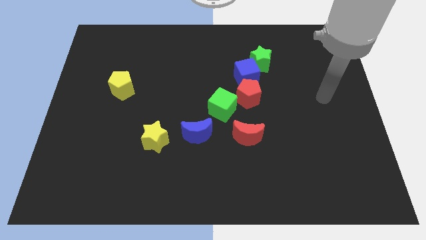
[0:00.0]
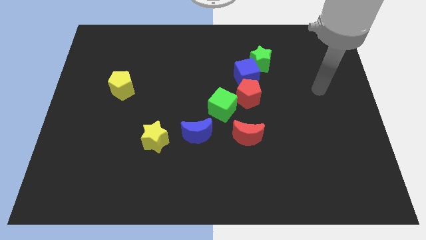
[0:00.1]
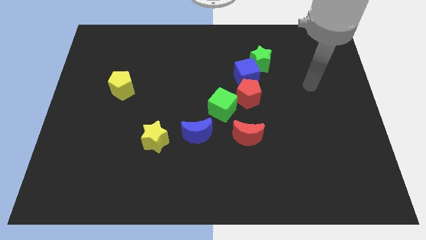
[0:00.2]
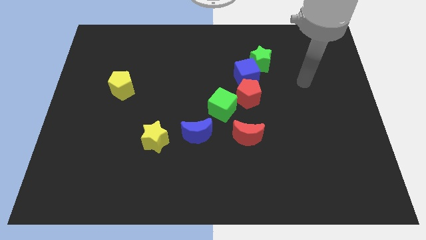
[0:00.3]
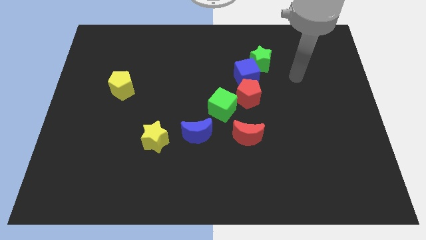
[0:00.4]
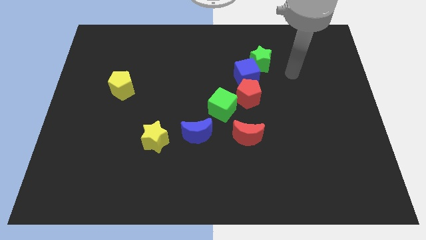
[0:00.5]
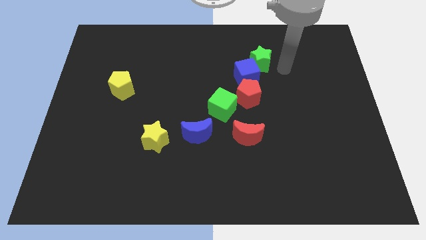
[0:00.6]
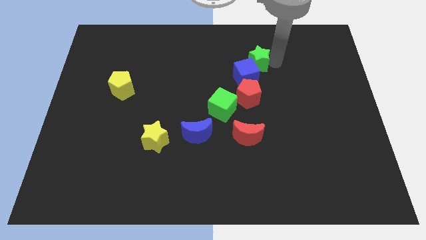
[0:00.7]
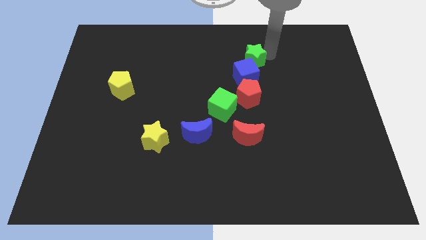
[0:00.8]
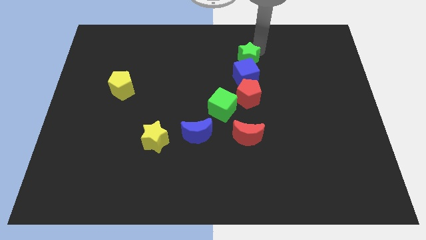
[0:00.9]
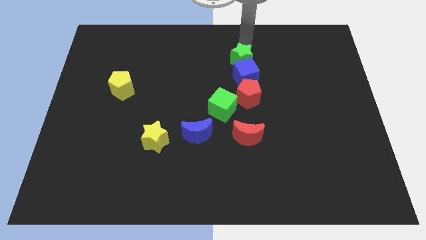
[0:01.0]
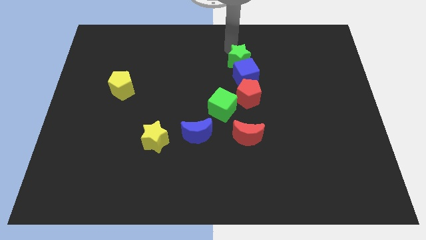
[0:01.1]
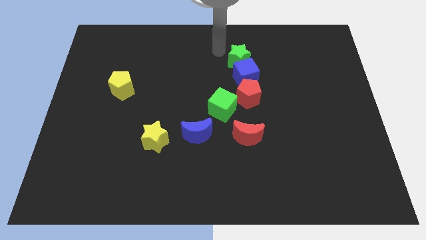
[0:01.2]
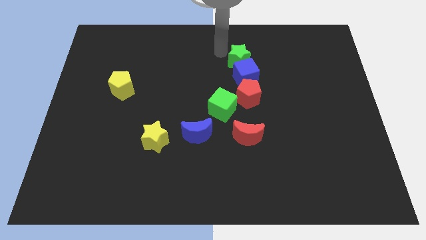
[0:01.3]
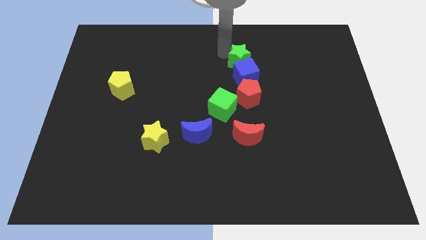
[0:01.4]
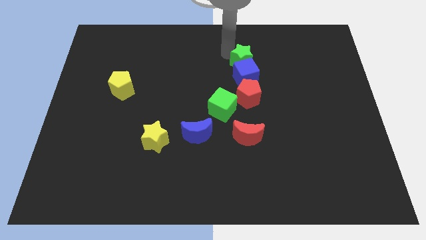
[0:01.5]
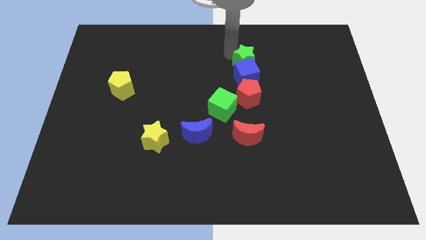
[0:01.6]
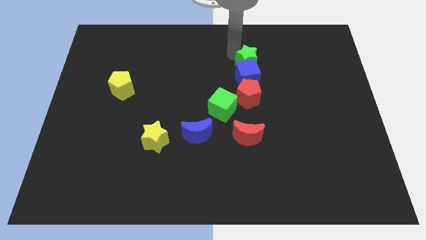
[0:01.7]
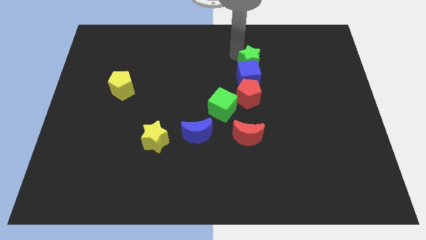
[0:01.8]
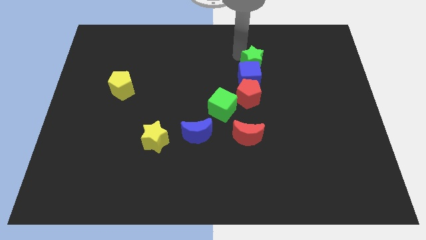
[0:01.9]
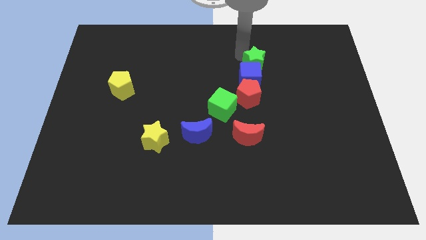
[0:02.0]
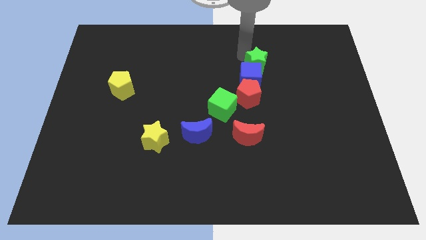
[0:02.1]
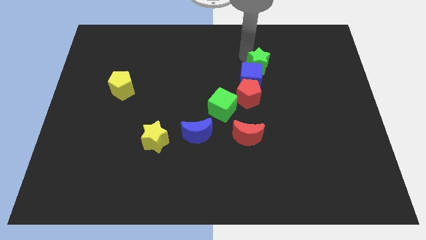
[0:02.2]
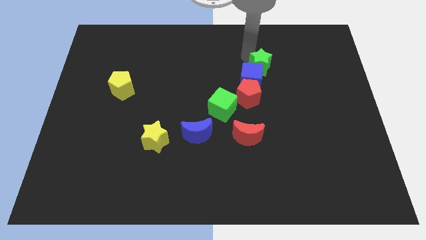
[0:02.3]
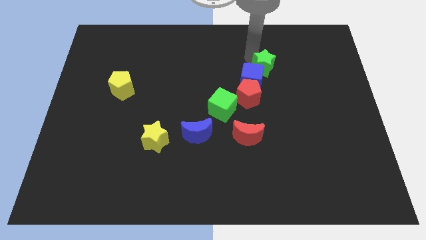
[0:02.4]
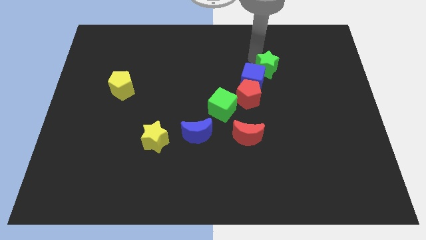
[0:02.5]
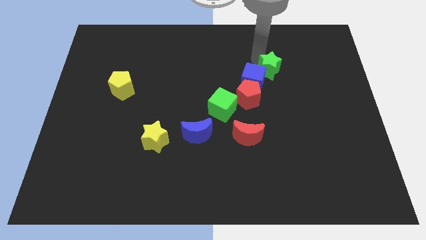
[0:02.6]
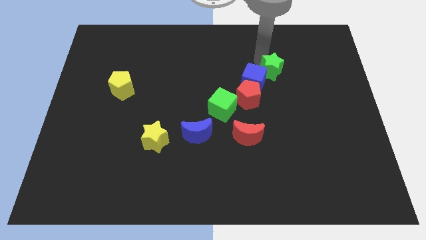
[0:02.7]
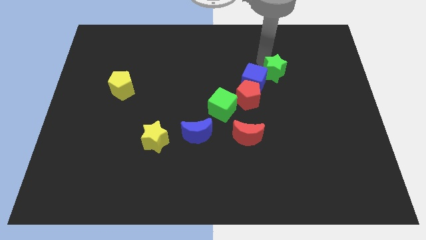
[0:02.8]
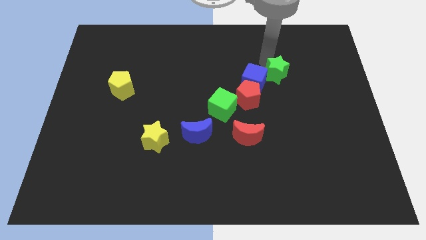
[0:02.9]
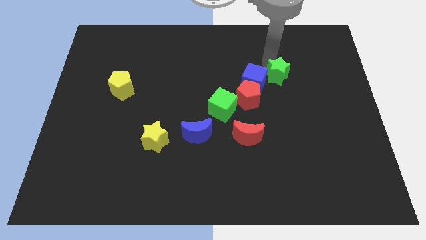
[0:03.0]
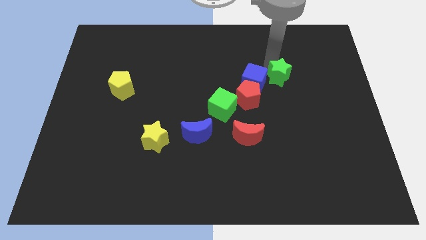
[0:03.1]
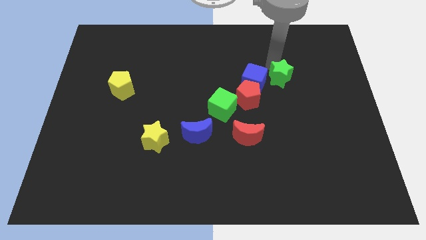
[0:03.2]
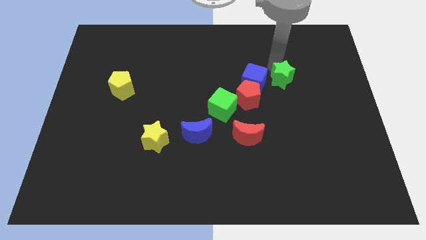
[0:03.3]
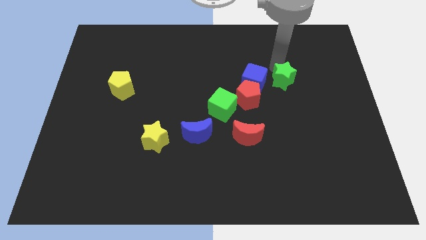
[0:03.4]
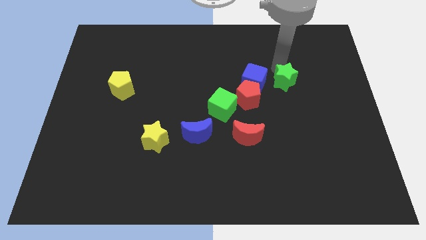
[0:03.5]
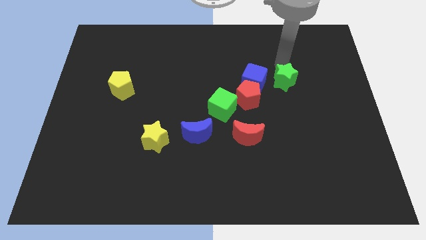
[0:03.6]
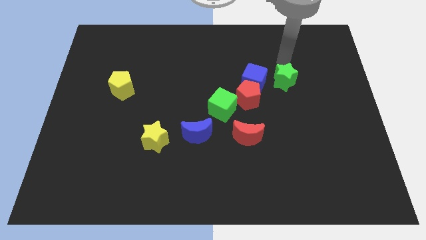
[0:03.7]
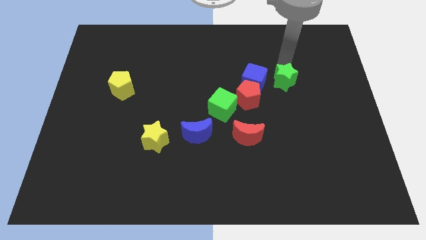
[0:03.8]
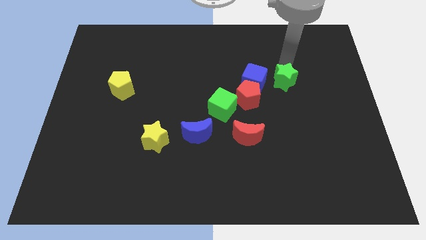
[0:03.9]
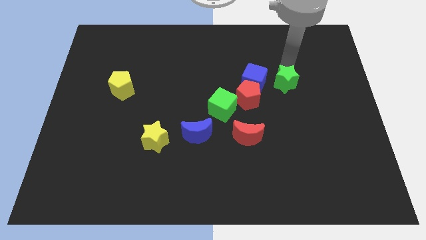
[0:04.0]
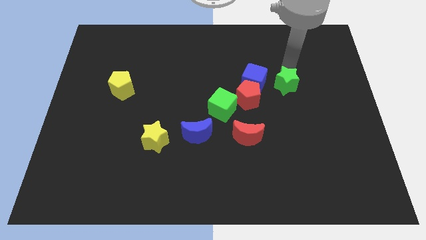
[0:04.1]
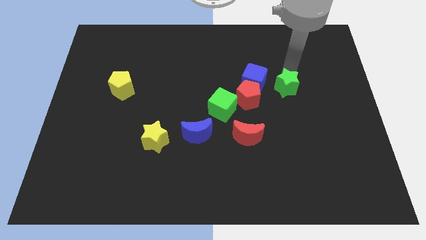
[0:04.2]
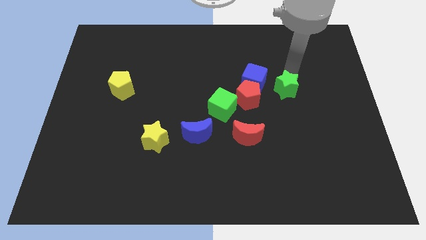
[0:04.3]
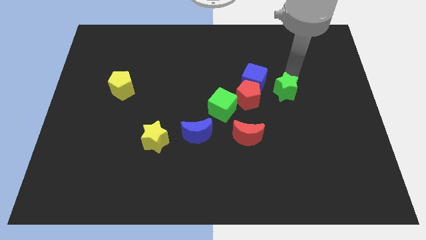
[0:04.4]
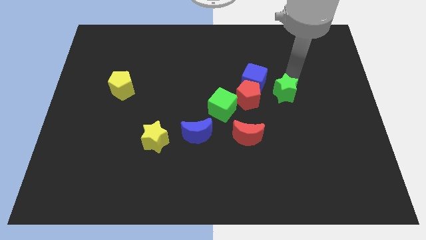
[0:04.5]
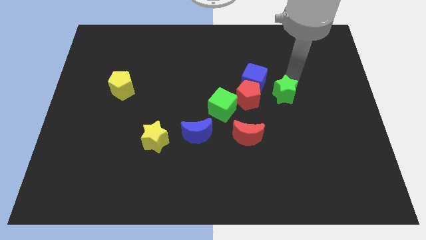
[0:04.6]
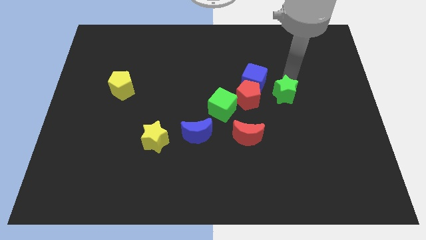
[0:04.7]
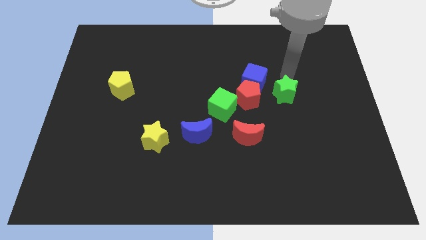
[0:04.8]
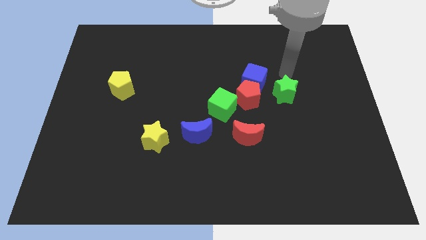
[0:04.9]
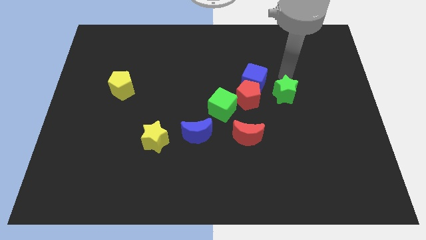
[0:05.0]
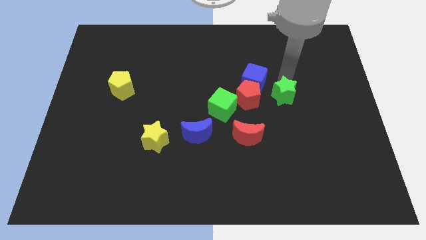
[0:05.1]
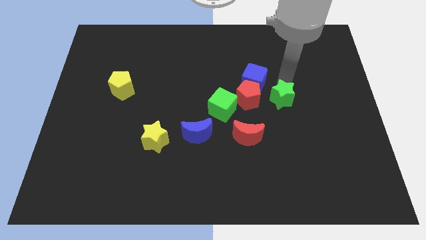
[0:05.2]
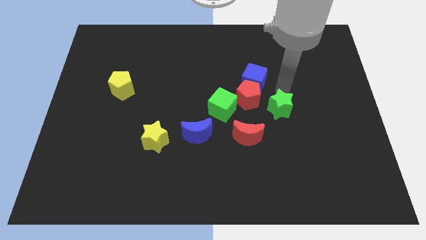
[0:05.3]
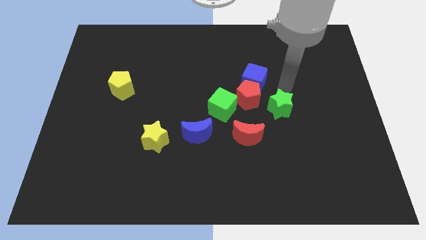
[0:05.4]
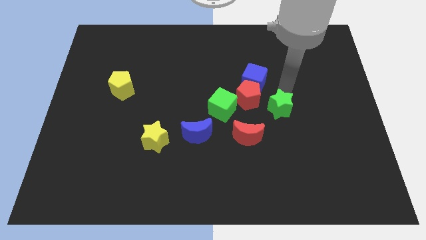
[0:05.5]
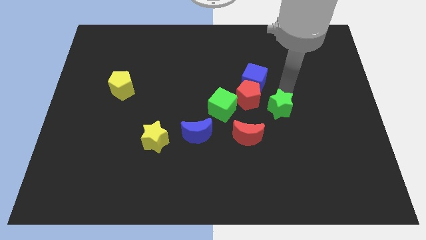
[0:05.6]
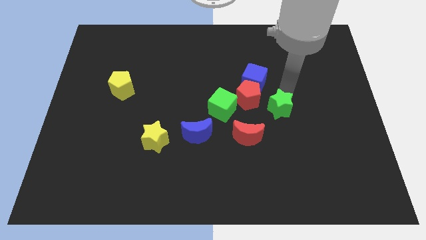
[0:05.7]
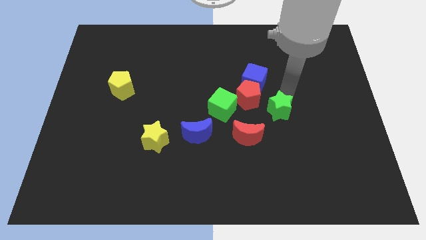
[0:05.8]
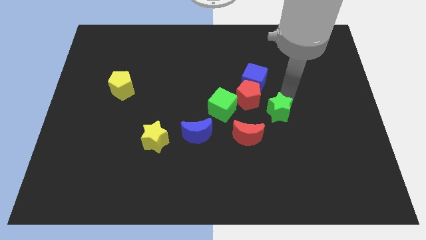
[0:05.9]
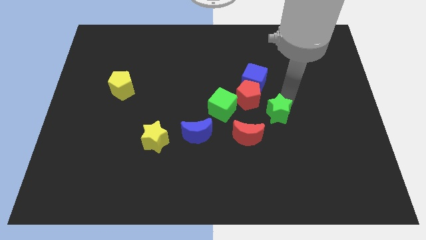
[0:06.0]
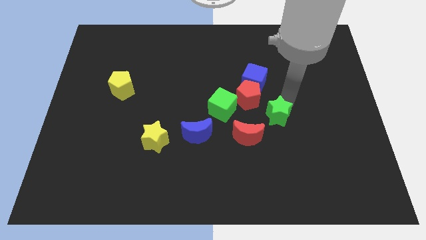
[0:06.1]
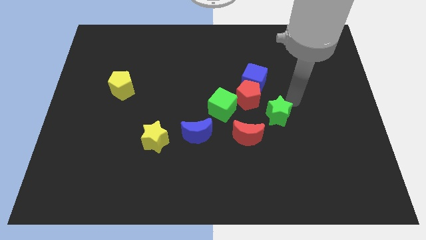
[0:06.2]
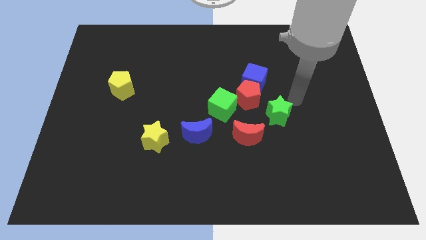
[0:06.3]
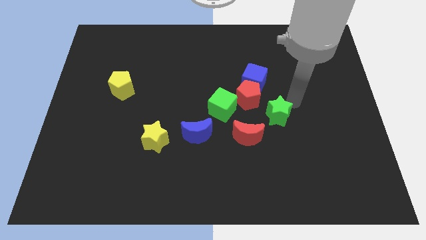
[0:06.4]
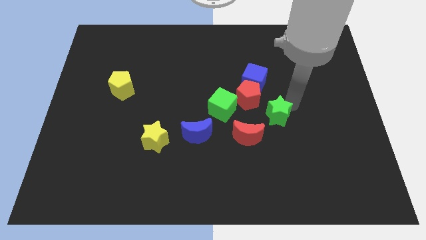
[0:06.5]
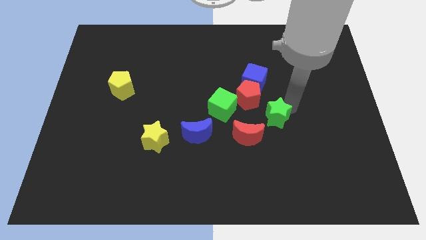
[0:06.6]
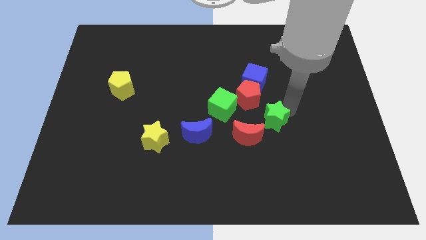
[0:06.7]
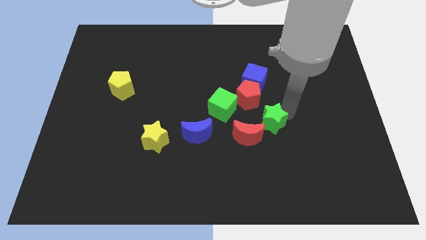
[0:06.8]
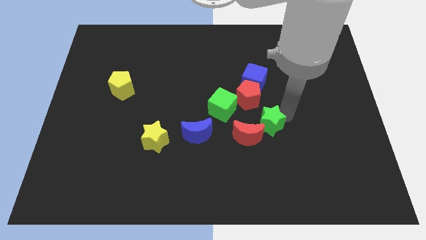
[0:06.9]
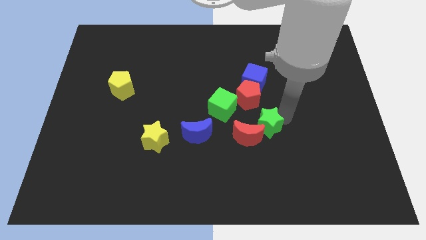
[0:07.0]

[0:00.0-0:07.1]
push the green star next to the red moon
